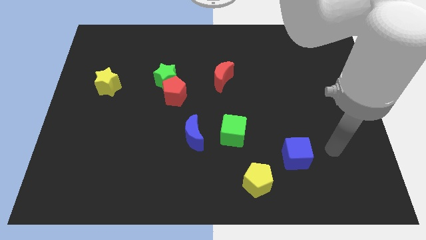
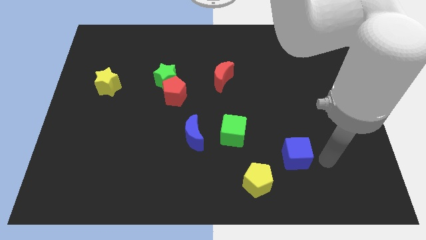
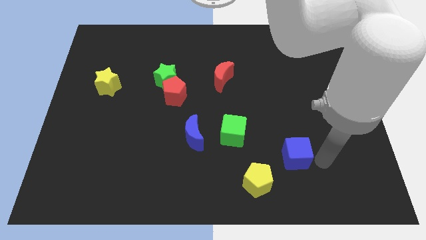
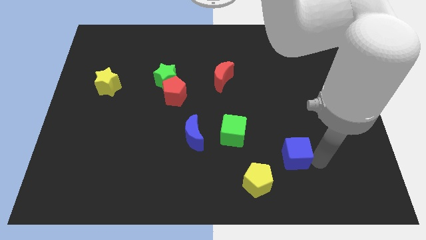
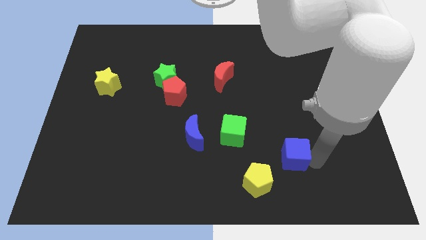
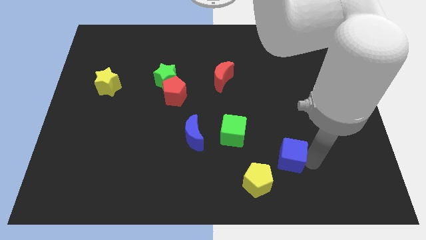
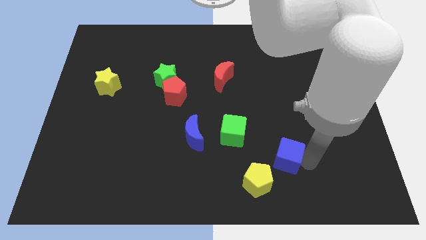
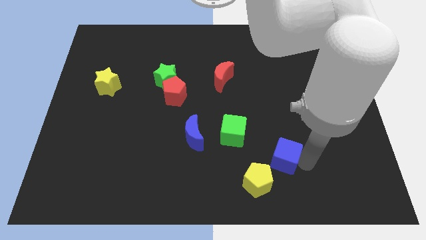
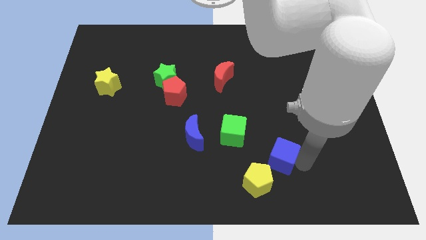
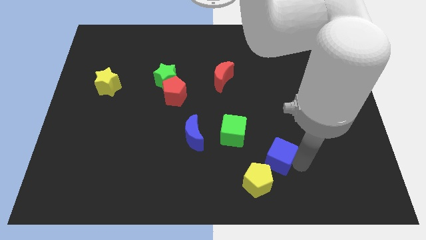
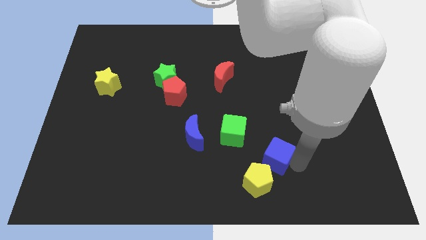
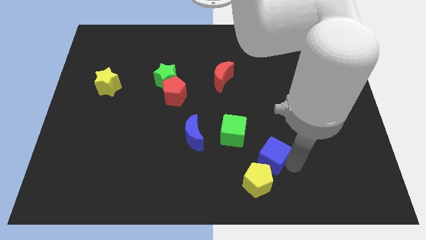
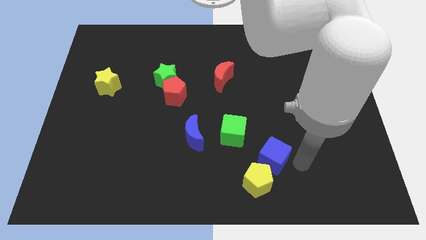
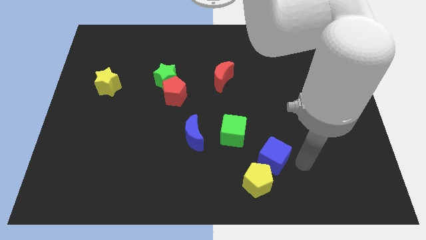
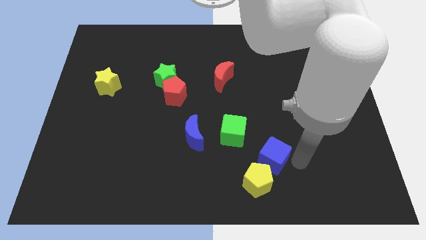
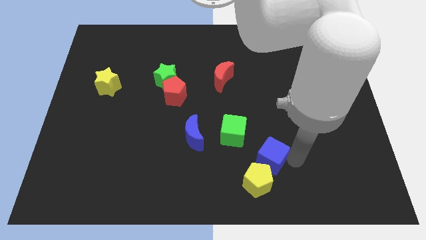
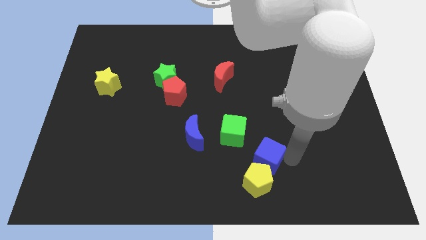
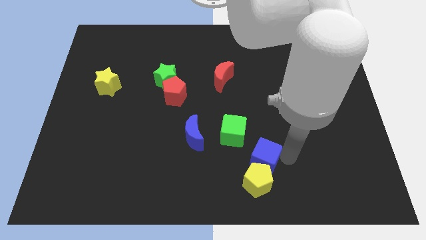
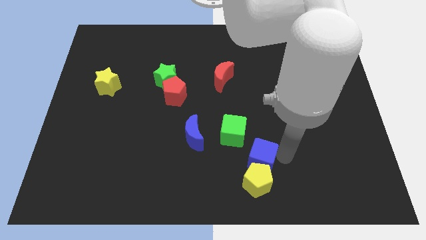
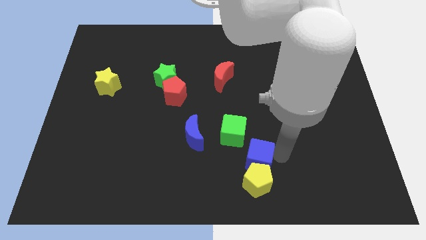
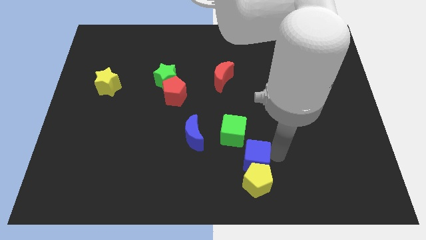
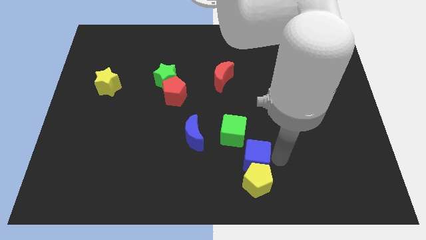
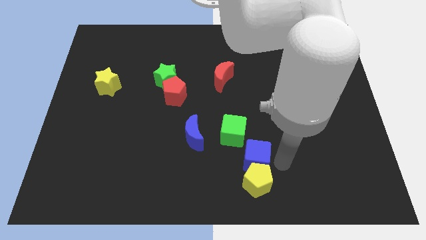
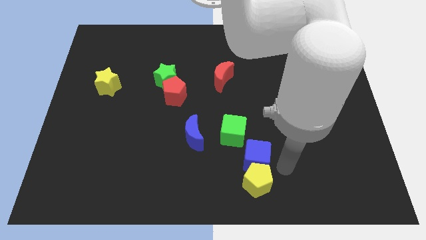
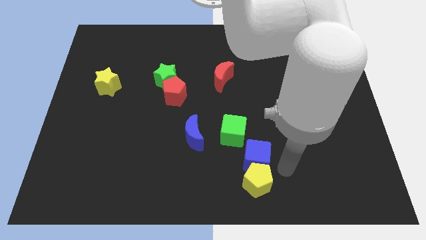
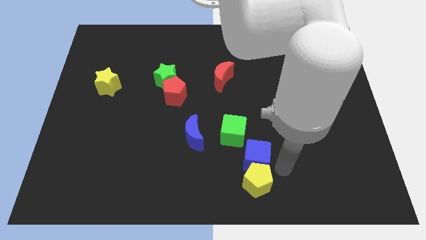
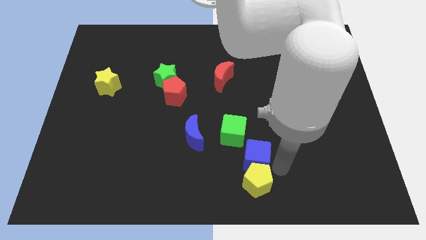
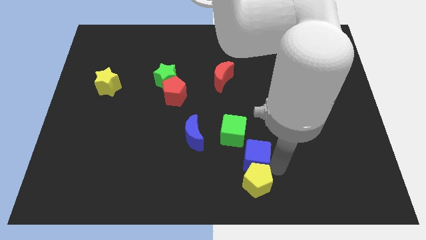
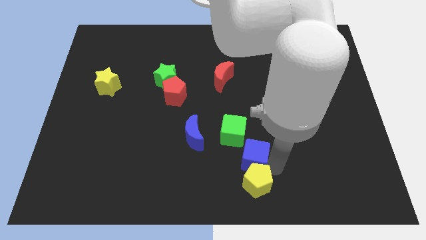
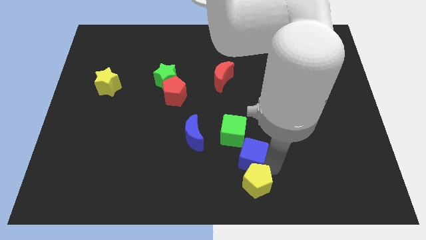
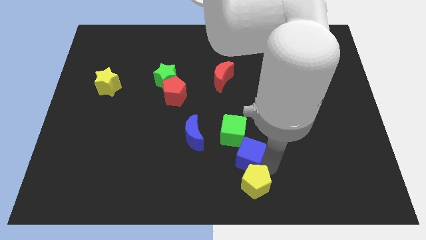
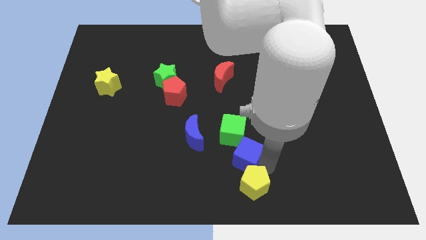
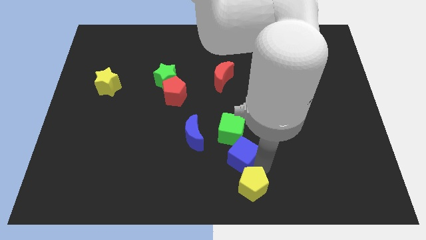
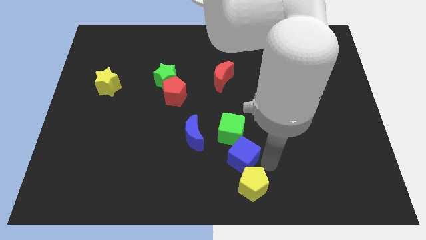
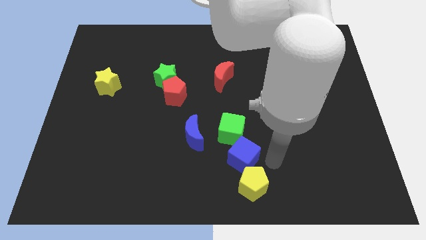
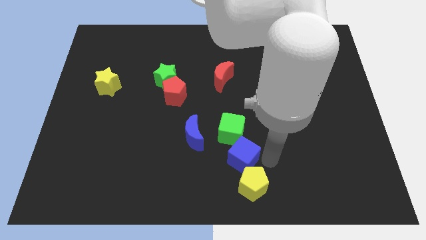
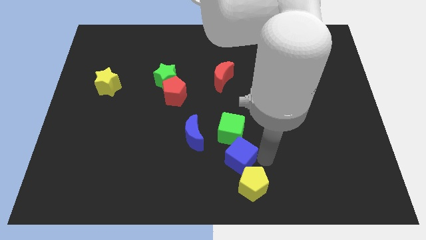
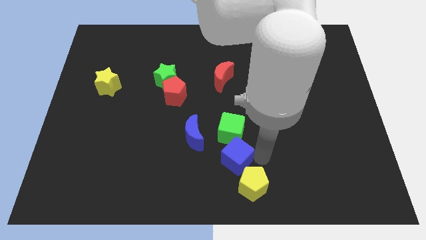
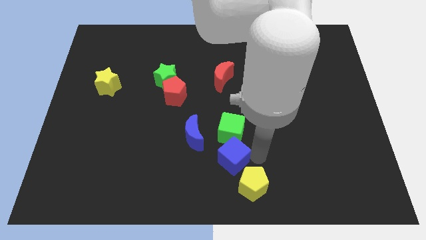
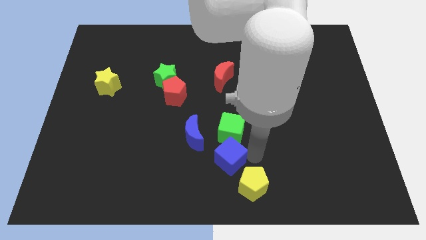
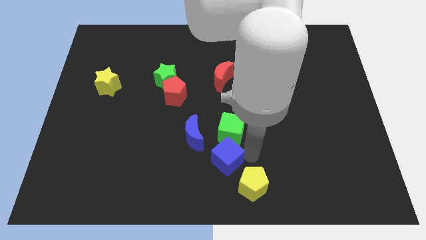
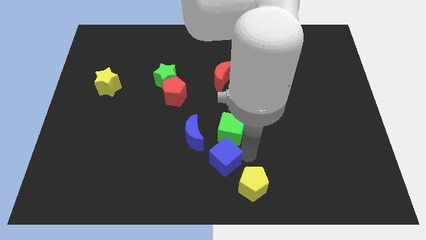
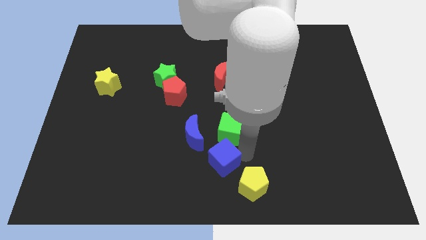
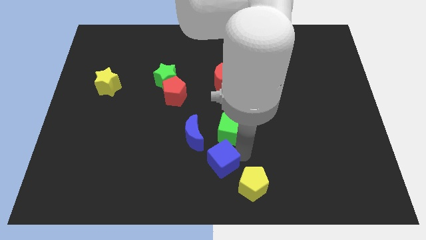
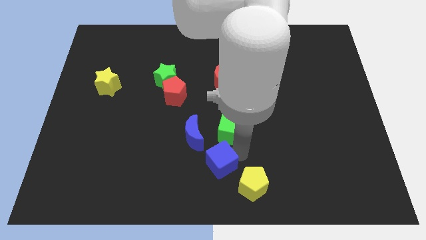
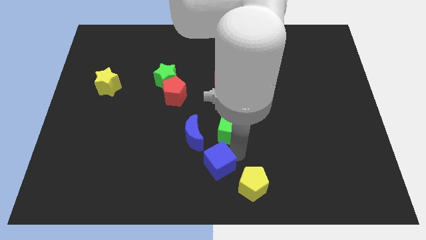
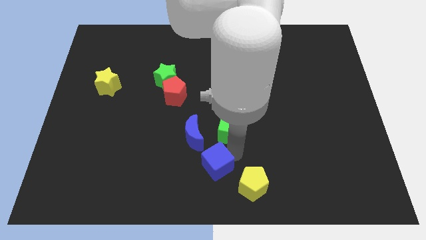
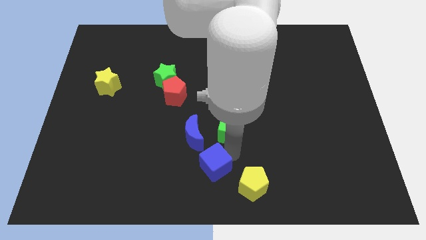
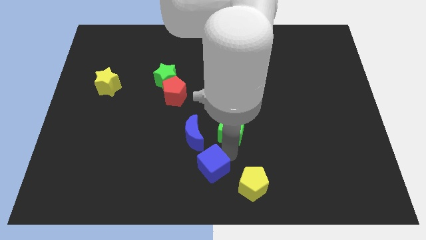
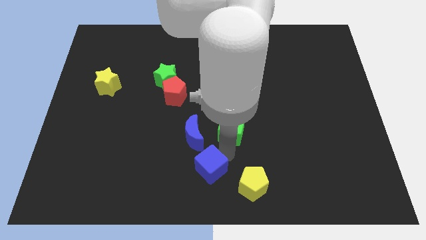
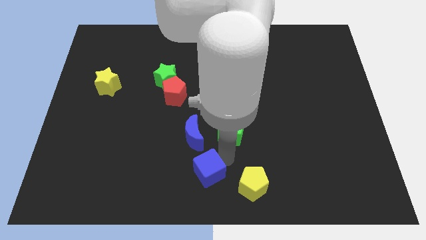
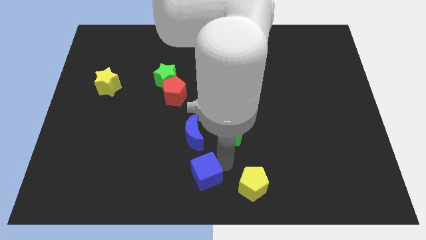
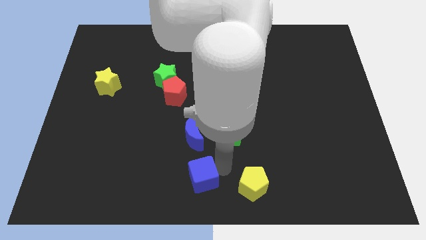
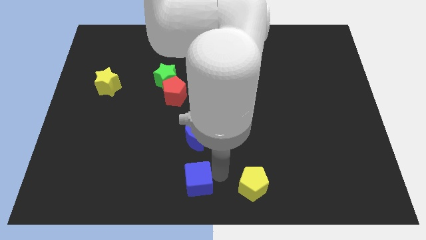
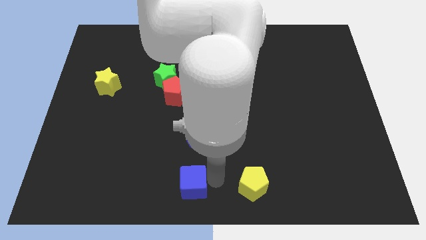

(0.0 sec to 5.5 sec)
push the blue cube to the left

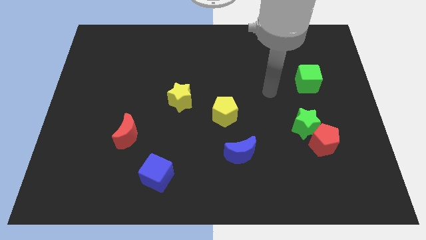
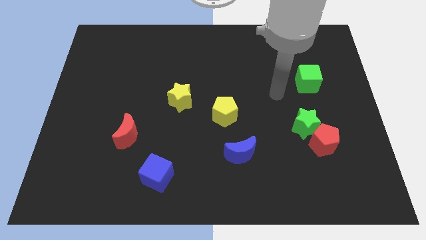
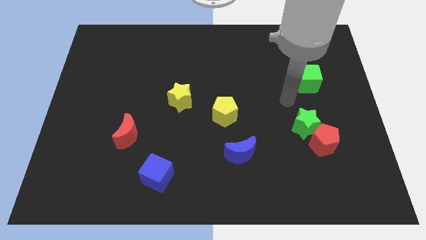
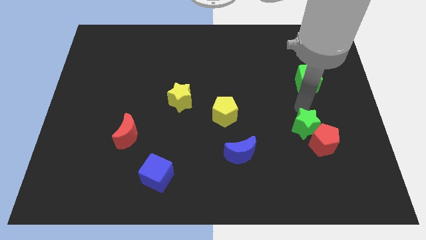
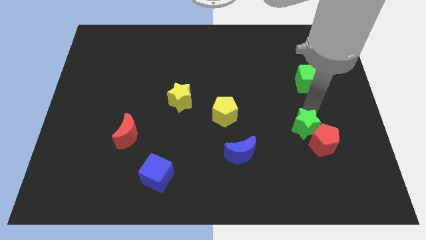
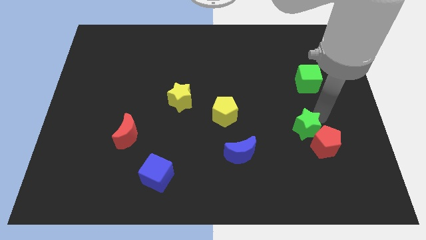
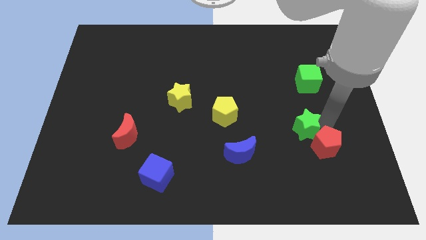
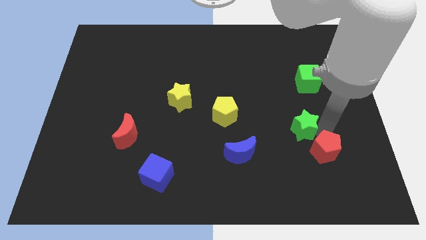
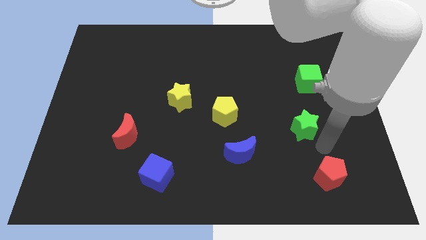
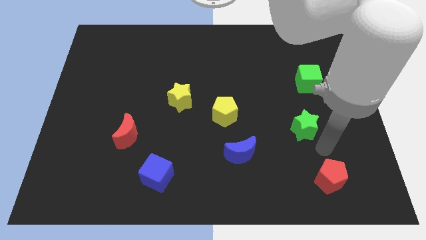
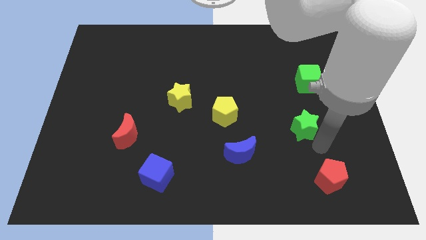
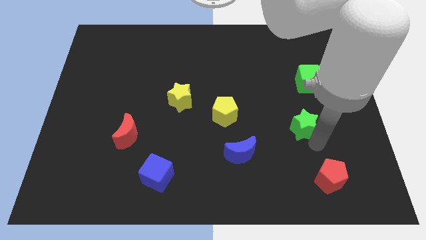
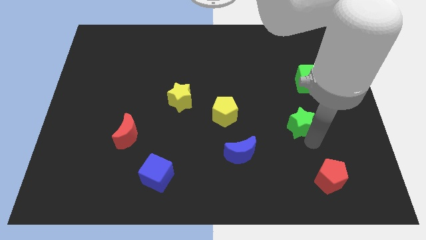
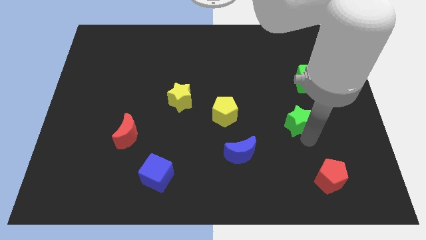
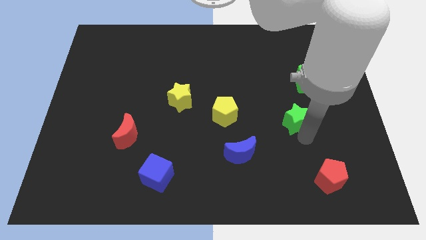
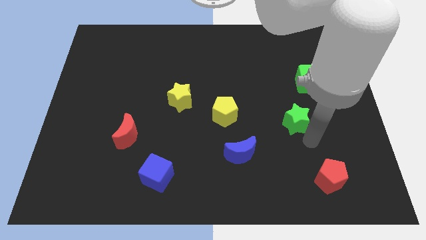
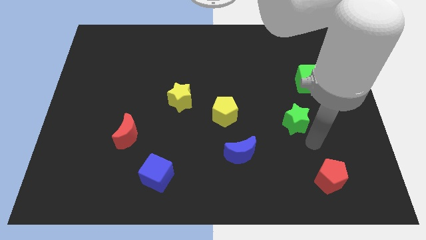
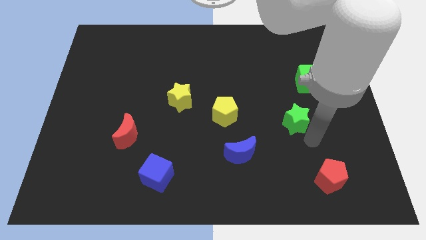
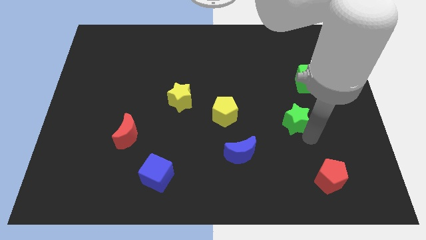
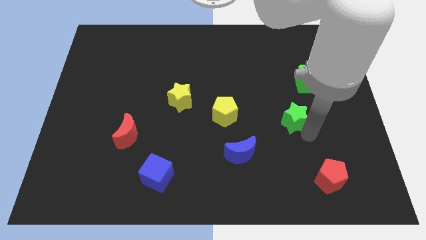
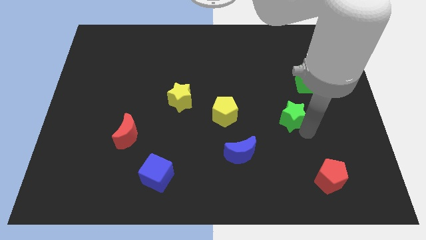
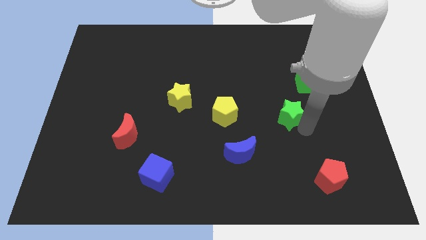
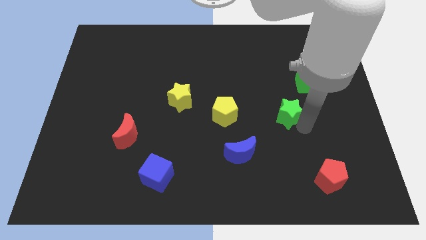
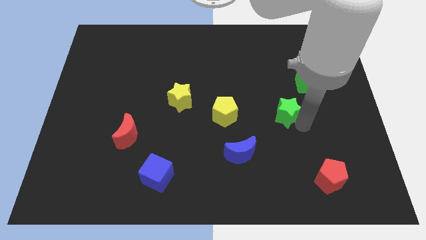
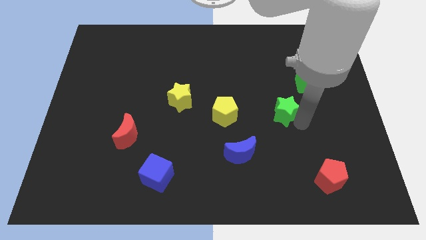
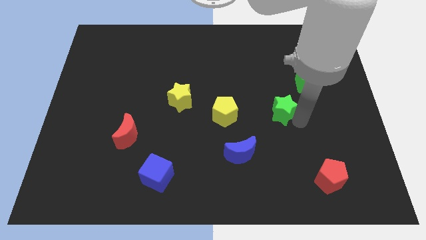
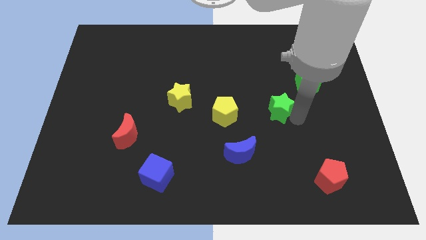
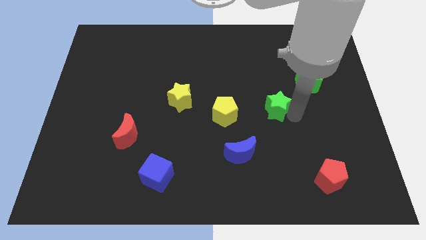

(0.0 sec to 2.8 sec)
slightly move the green star diagonally upwards and to the left
